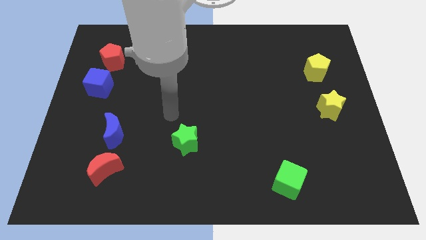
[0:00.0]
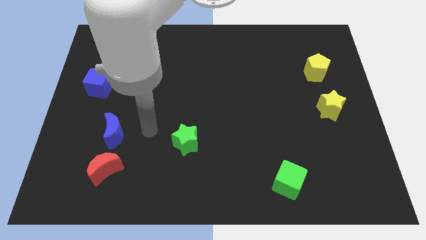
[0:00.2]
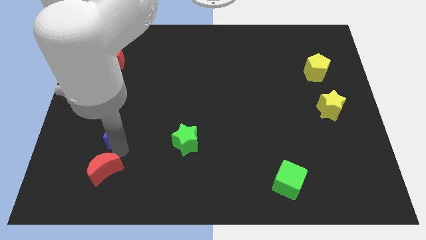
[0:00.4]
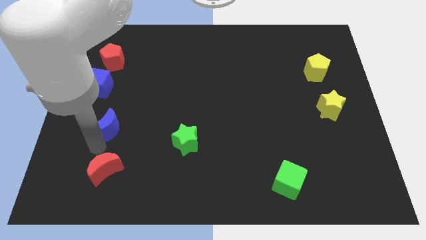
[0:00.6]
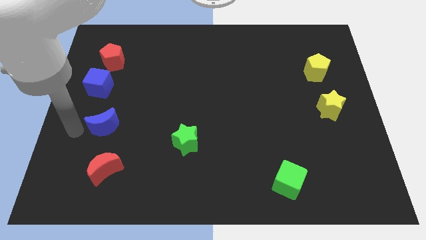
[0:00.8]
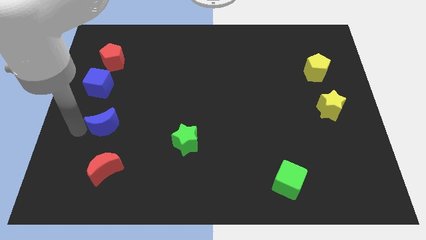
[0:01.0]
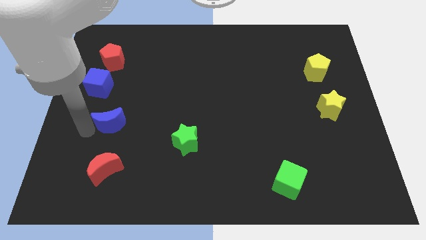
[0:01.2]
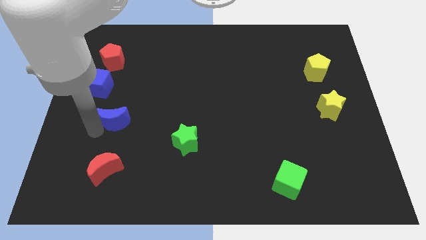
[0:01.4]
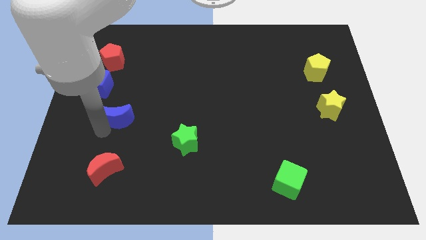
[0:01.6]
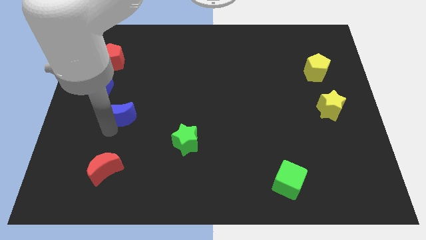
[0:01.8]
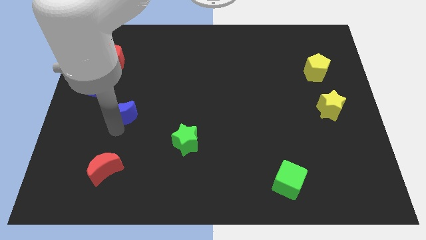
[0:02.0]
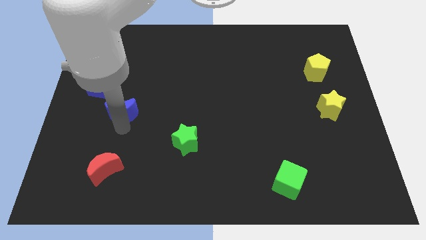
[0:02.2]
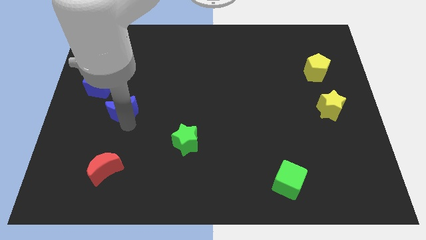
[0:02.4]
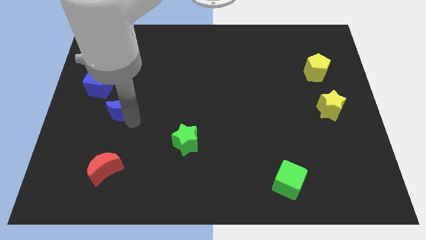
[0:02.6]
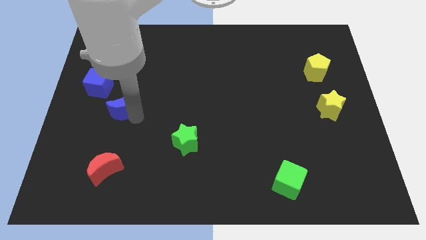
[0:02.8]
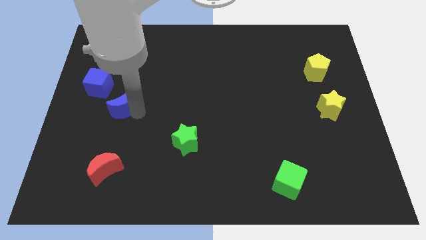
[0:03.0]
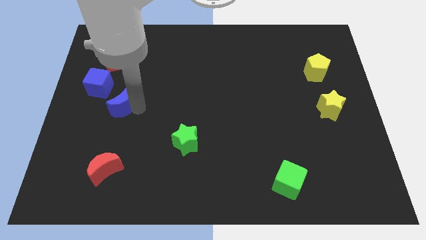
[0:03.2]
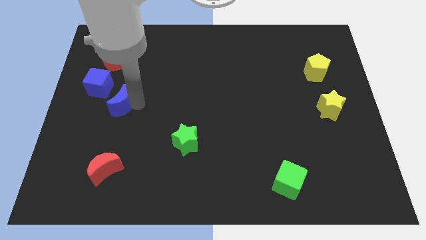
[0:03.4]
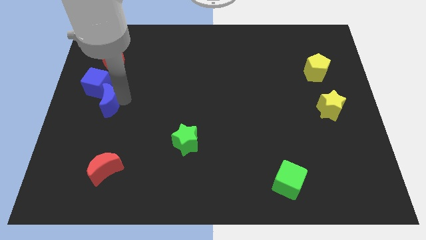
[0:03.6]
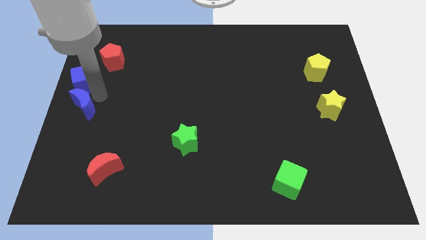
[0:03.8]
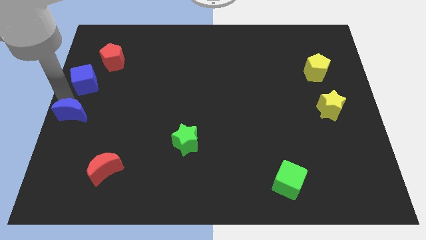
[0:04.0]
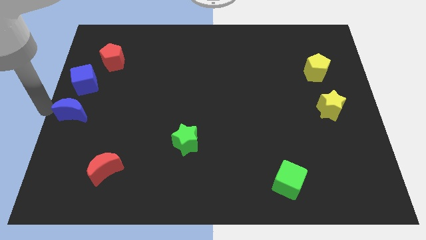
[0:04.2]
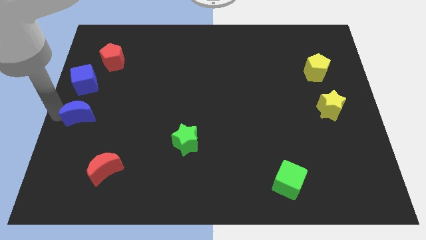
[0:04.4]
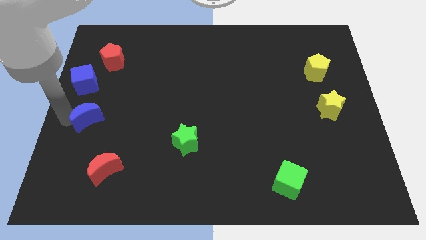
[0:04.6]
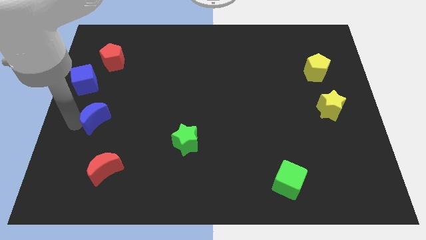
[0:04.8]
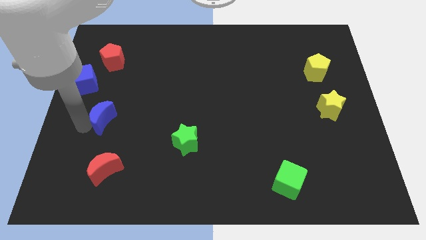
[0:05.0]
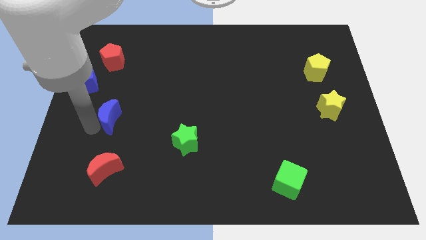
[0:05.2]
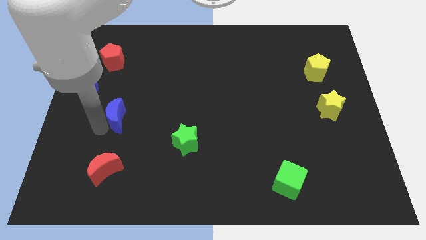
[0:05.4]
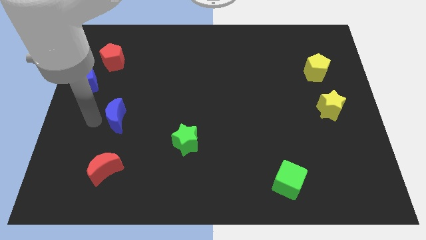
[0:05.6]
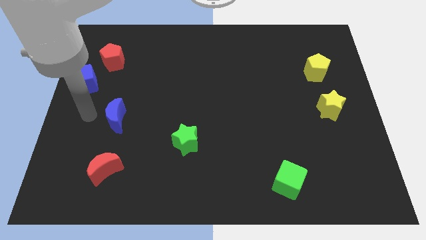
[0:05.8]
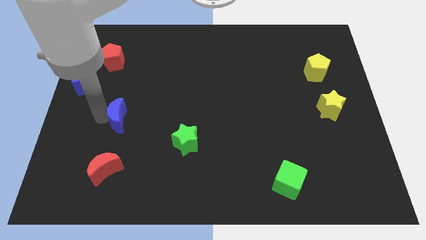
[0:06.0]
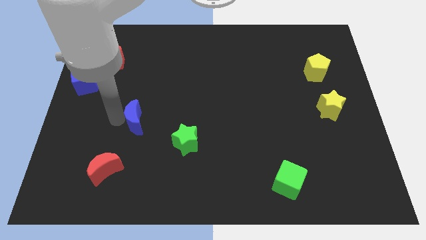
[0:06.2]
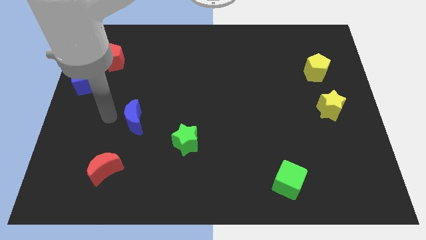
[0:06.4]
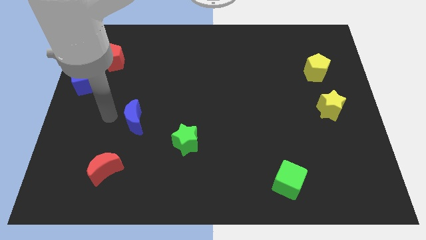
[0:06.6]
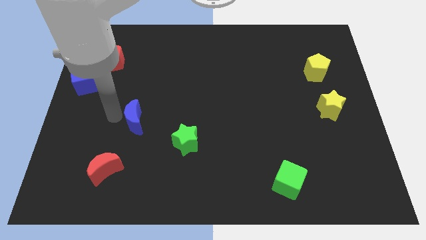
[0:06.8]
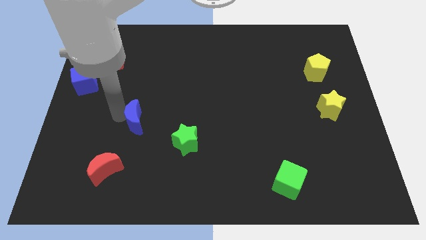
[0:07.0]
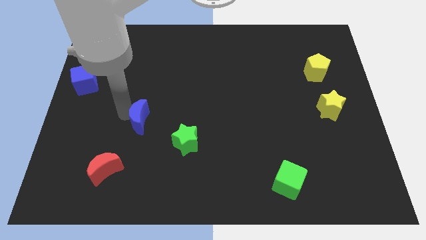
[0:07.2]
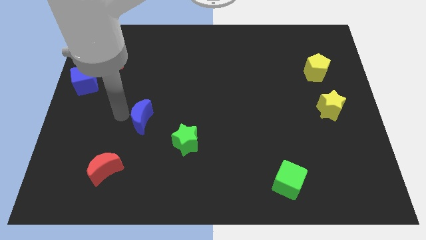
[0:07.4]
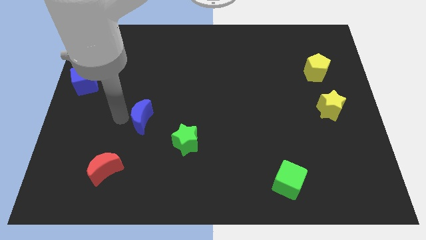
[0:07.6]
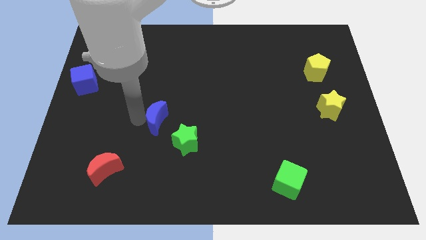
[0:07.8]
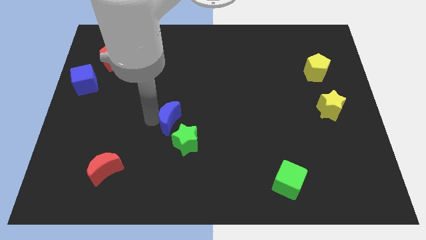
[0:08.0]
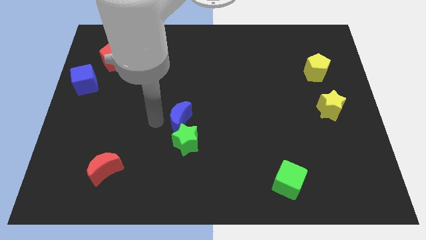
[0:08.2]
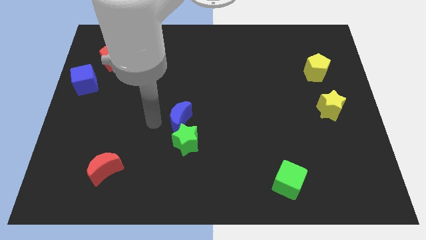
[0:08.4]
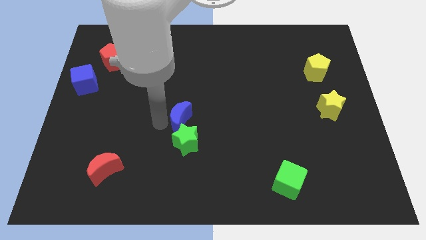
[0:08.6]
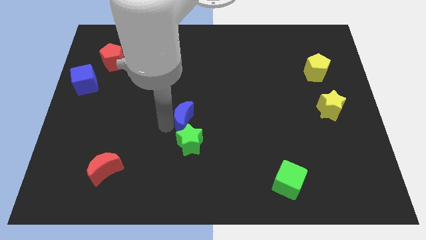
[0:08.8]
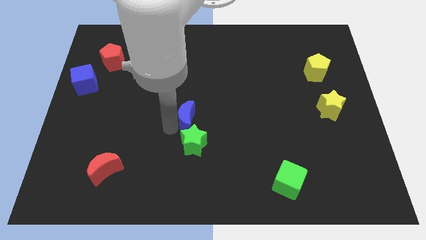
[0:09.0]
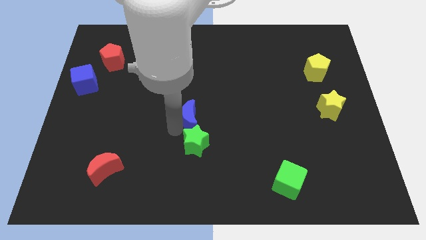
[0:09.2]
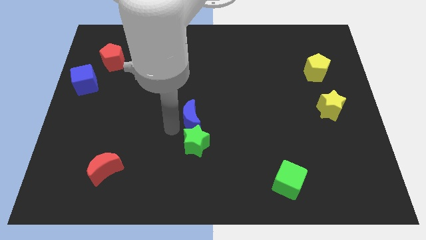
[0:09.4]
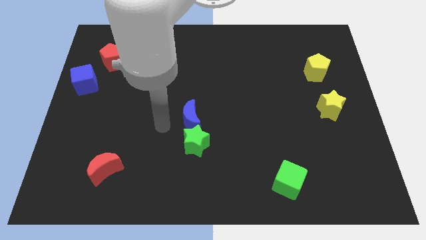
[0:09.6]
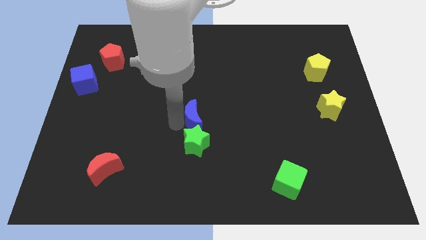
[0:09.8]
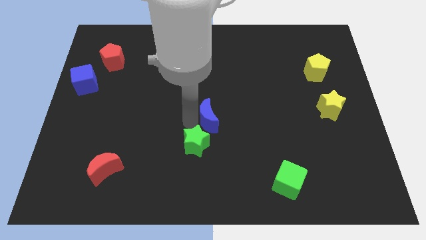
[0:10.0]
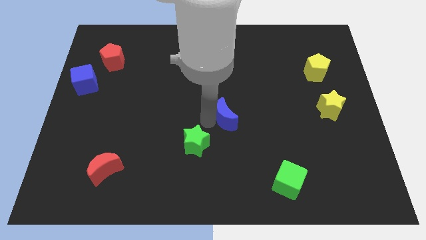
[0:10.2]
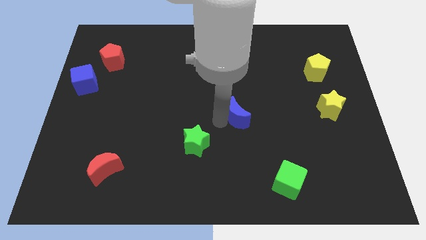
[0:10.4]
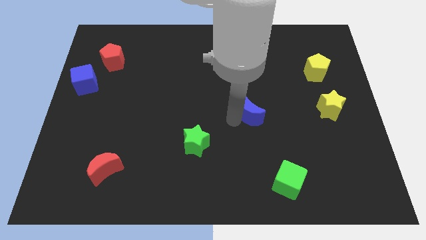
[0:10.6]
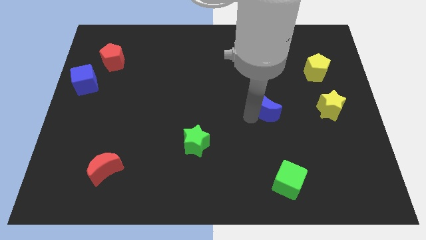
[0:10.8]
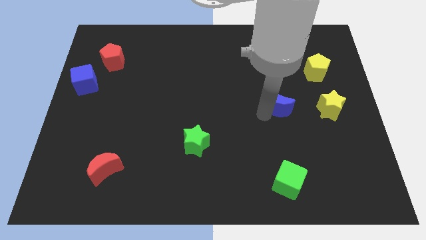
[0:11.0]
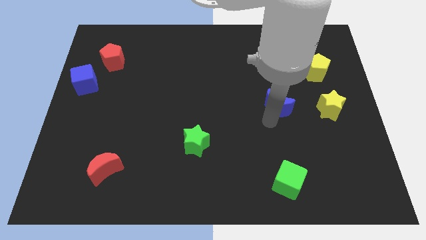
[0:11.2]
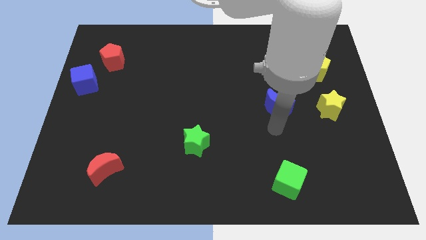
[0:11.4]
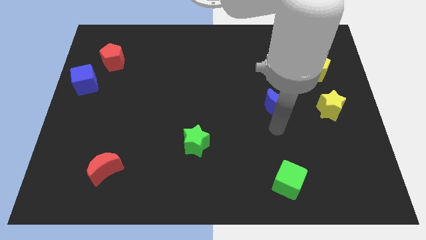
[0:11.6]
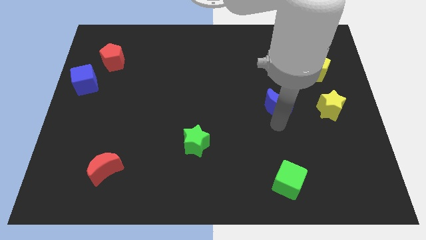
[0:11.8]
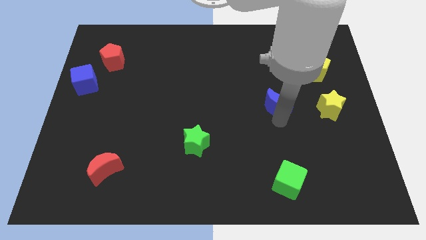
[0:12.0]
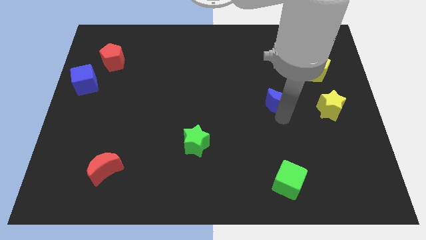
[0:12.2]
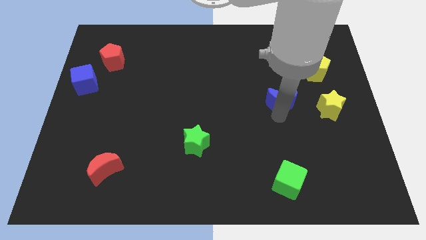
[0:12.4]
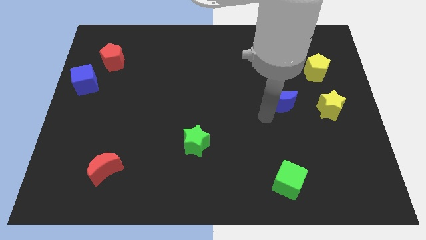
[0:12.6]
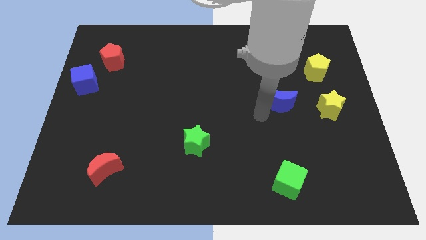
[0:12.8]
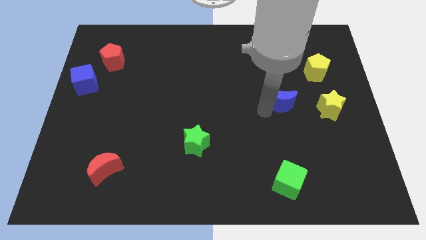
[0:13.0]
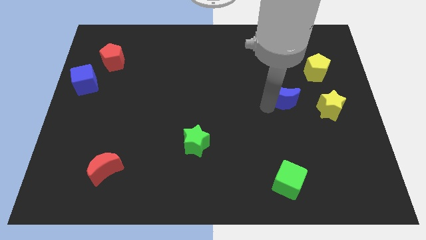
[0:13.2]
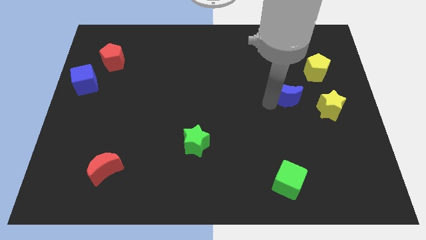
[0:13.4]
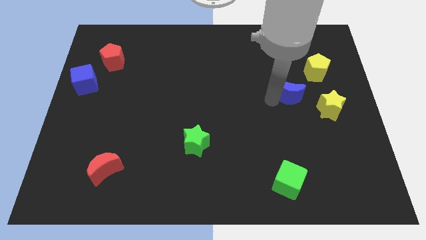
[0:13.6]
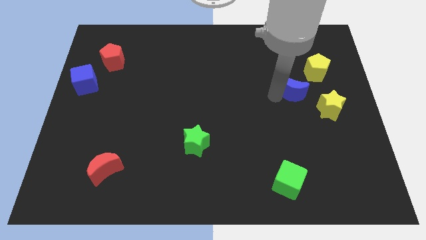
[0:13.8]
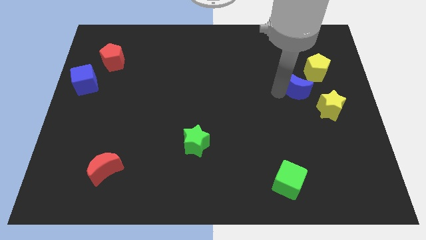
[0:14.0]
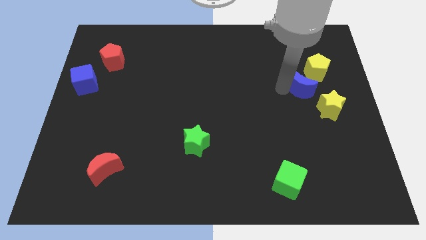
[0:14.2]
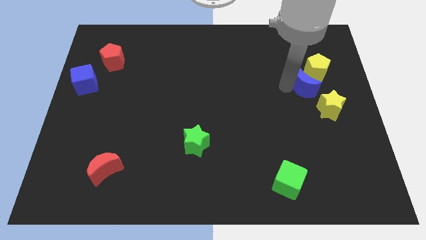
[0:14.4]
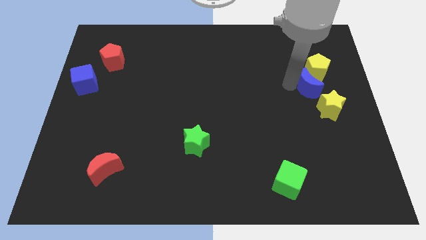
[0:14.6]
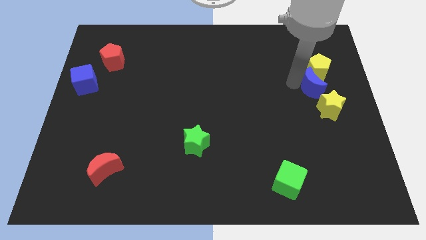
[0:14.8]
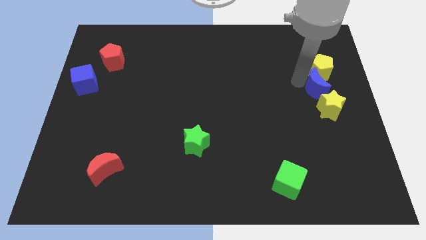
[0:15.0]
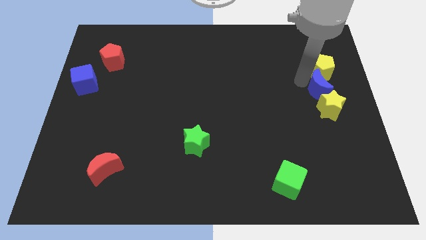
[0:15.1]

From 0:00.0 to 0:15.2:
move the blue moon to the right side of the board
